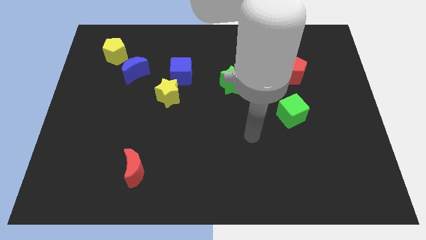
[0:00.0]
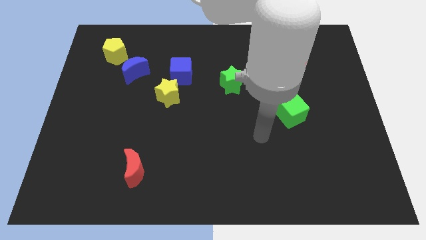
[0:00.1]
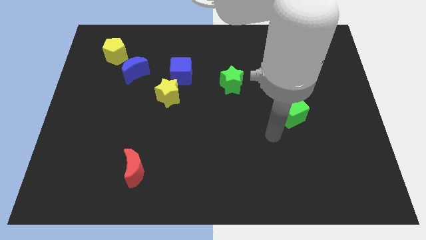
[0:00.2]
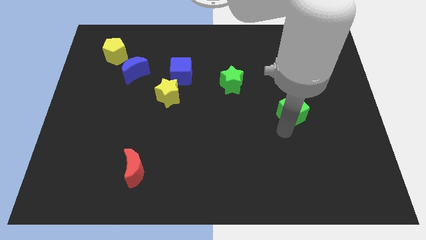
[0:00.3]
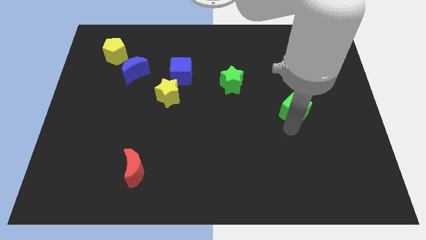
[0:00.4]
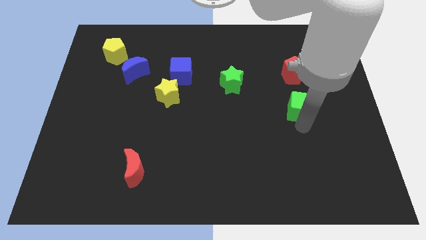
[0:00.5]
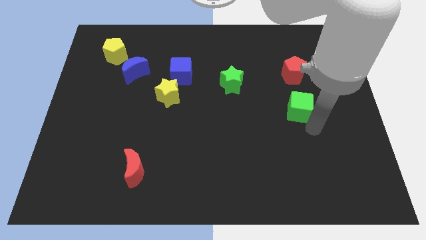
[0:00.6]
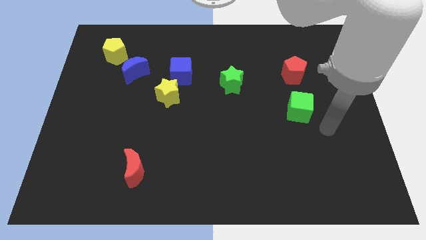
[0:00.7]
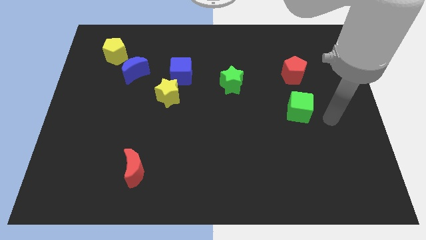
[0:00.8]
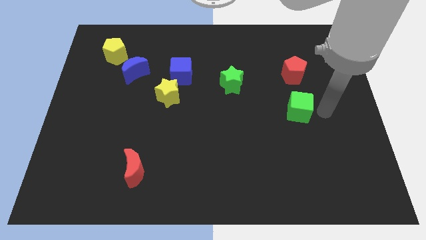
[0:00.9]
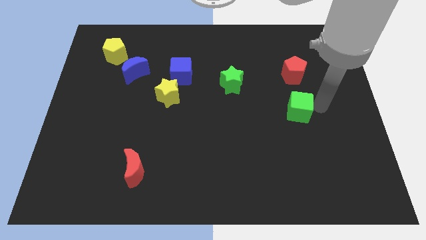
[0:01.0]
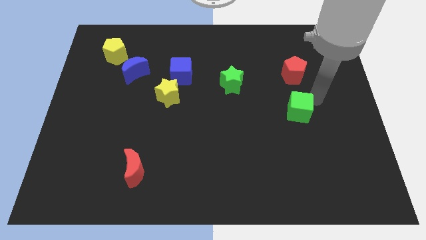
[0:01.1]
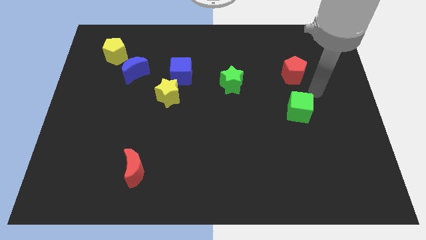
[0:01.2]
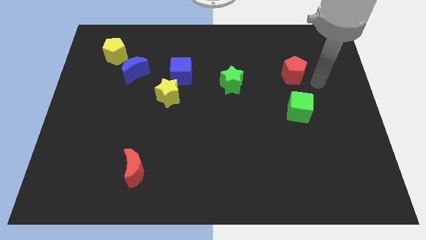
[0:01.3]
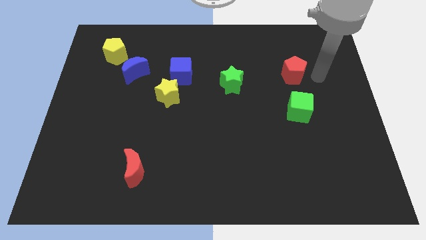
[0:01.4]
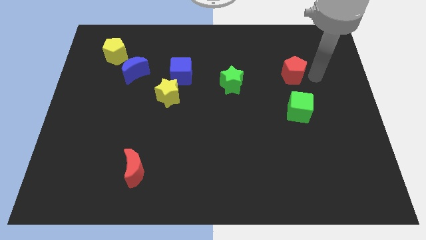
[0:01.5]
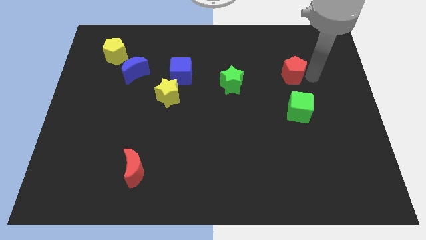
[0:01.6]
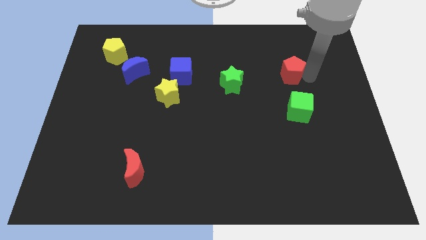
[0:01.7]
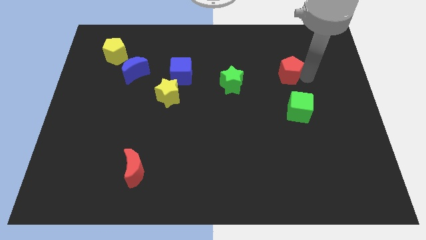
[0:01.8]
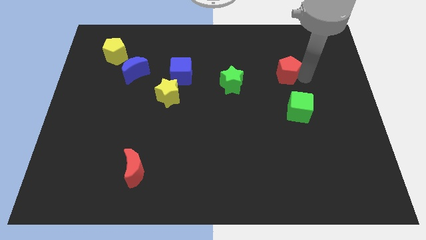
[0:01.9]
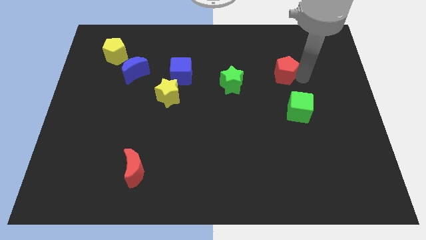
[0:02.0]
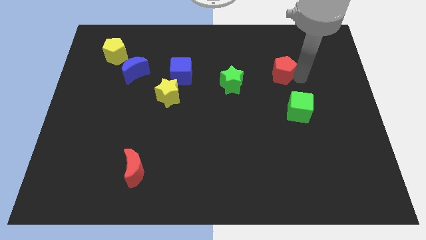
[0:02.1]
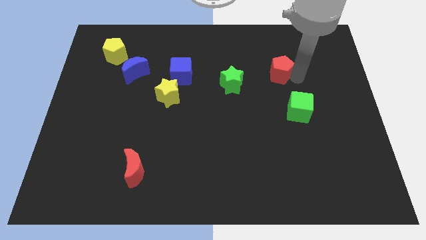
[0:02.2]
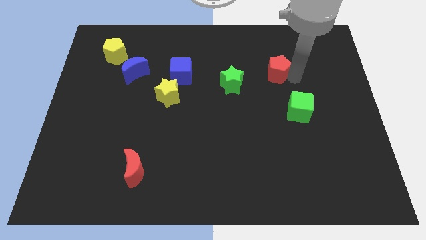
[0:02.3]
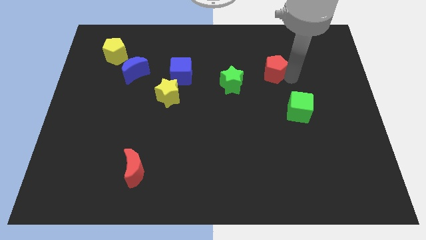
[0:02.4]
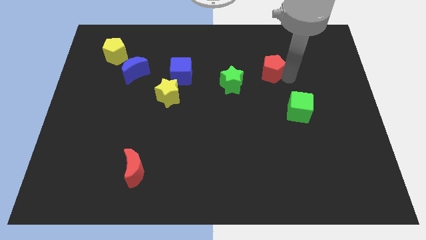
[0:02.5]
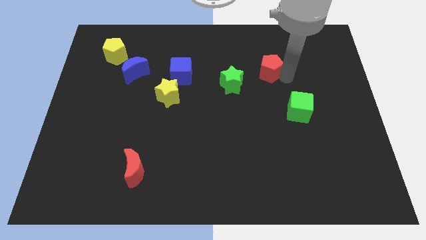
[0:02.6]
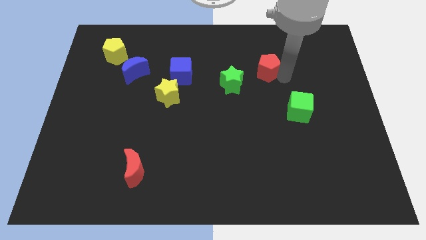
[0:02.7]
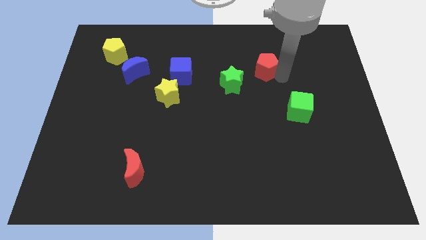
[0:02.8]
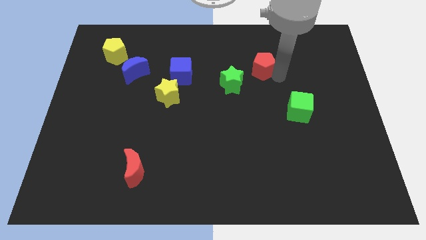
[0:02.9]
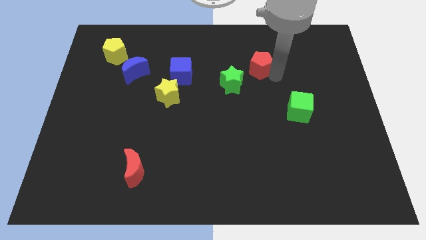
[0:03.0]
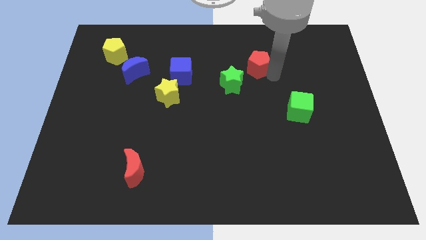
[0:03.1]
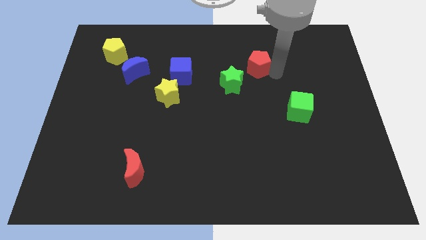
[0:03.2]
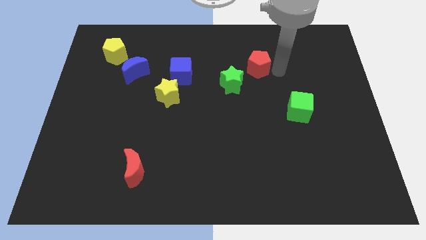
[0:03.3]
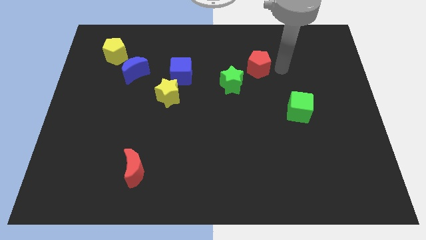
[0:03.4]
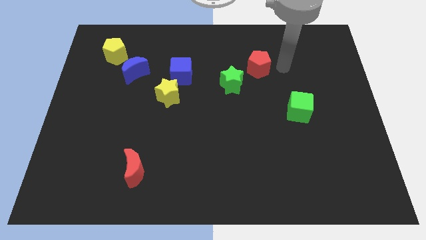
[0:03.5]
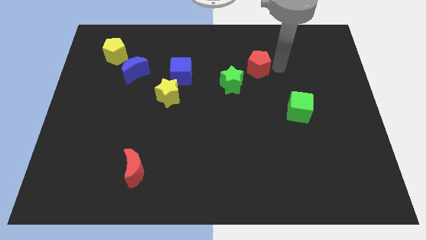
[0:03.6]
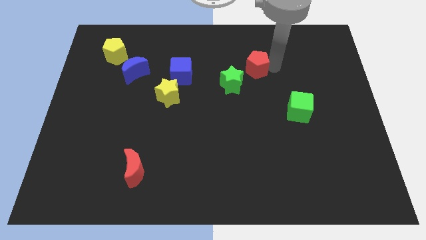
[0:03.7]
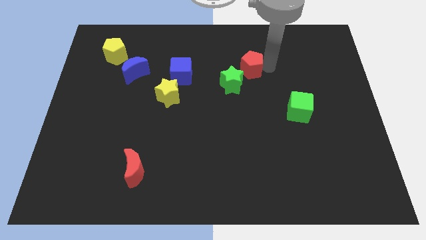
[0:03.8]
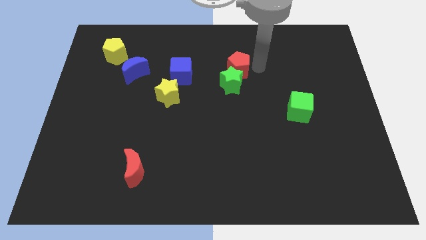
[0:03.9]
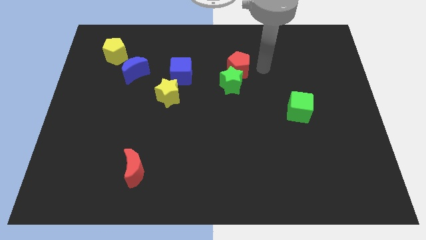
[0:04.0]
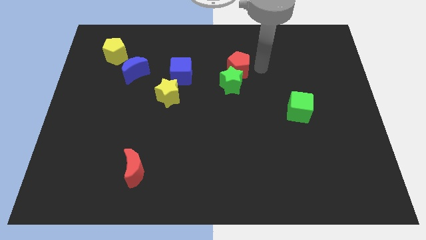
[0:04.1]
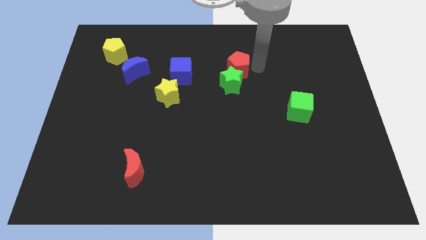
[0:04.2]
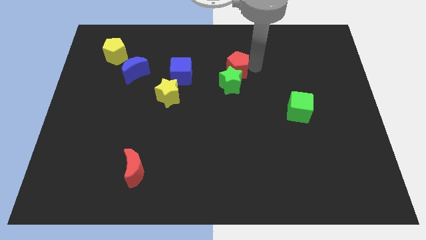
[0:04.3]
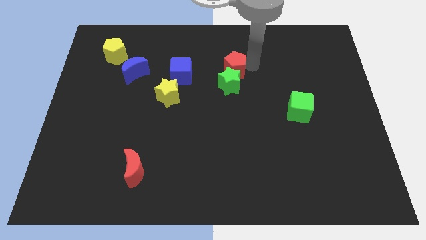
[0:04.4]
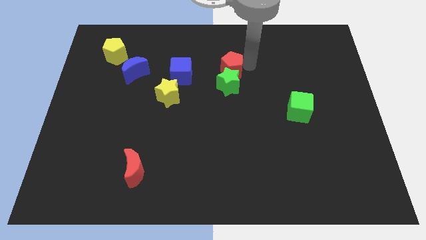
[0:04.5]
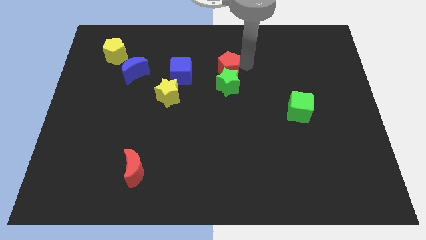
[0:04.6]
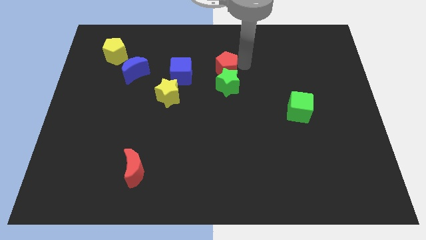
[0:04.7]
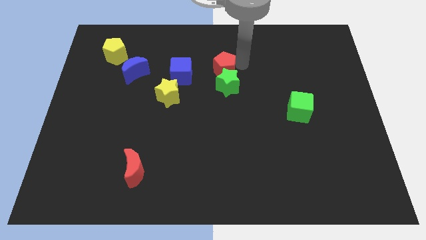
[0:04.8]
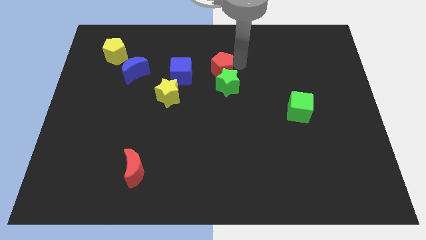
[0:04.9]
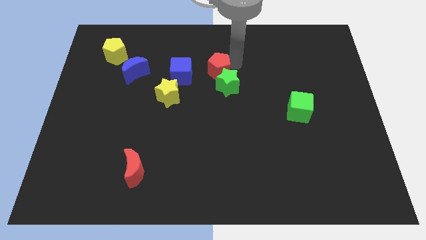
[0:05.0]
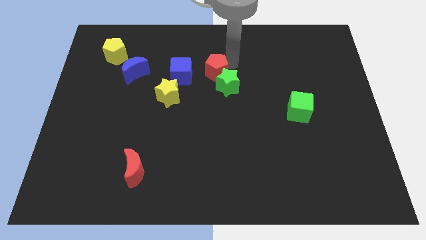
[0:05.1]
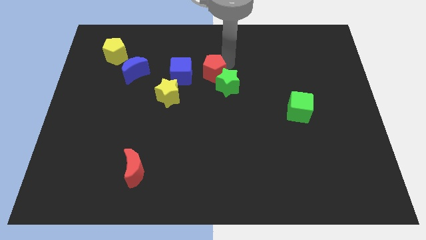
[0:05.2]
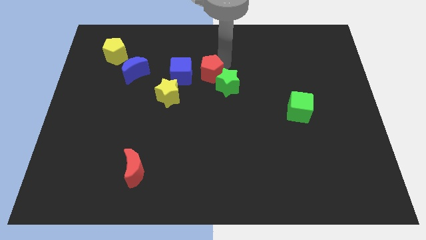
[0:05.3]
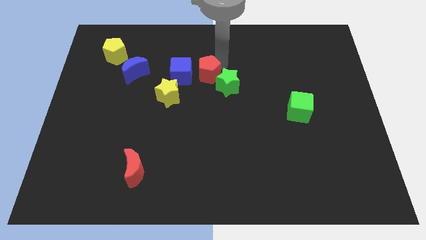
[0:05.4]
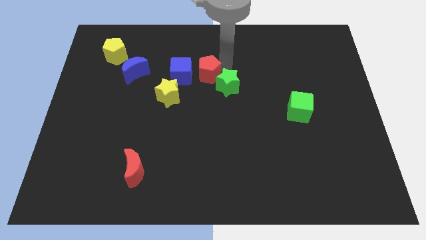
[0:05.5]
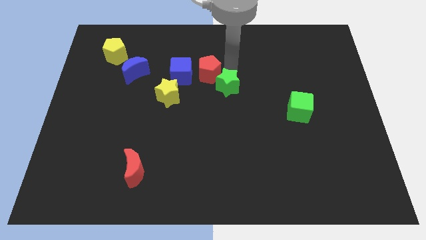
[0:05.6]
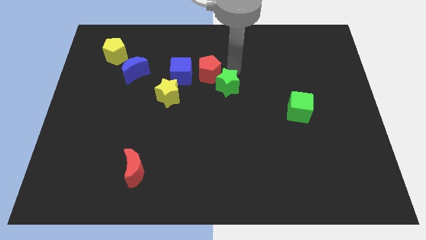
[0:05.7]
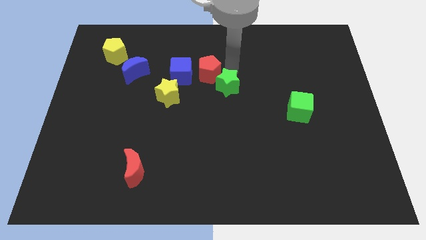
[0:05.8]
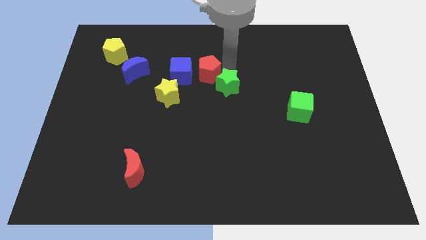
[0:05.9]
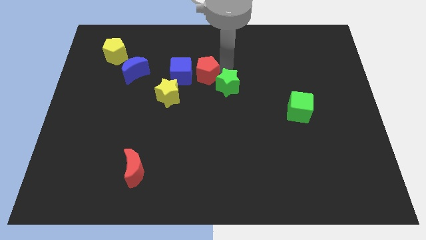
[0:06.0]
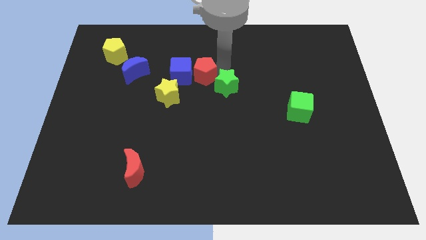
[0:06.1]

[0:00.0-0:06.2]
move the red pentagon towards the blue cube

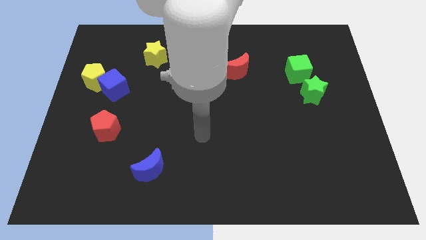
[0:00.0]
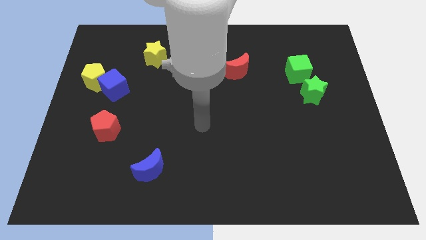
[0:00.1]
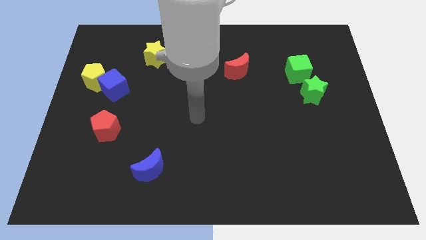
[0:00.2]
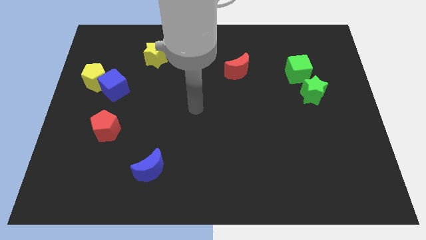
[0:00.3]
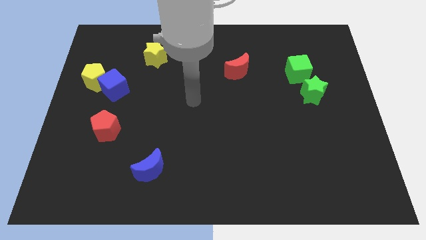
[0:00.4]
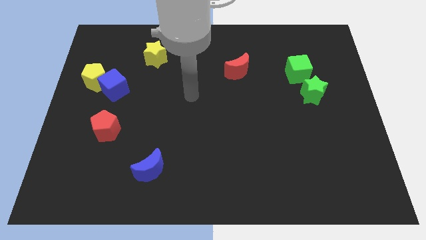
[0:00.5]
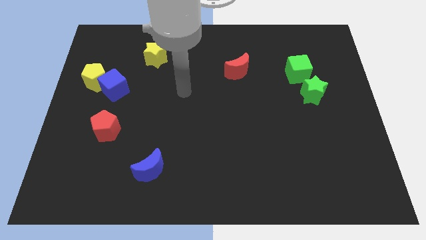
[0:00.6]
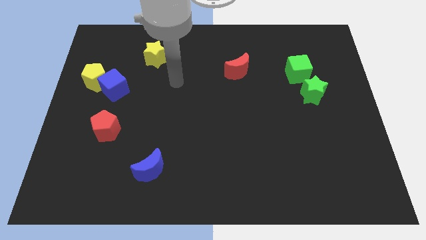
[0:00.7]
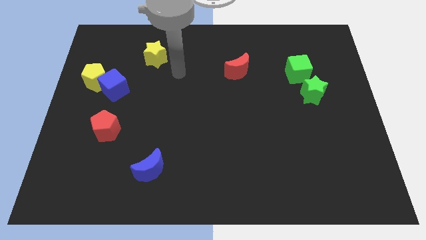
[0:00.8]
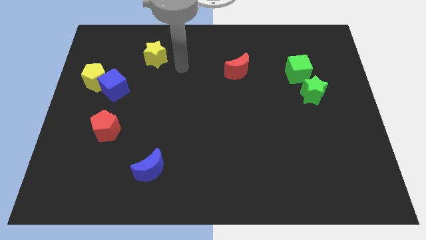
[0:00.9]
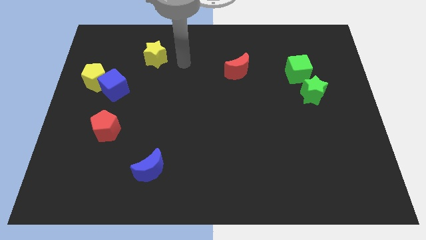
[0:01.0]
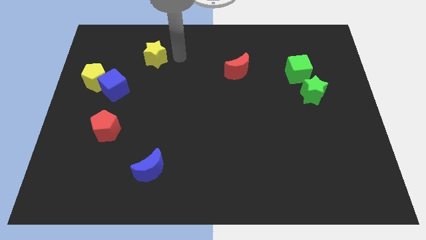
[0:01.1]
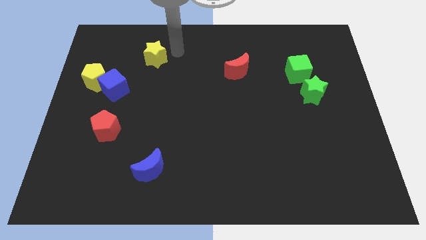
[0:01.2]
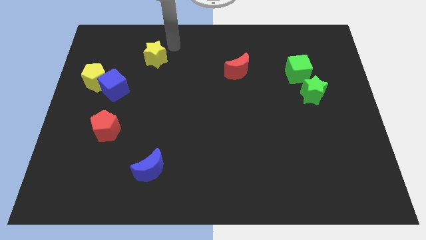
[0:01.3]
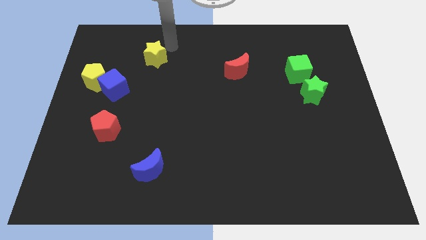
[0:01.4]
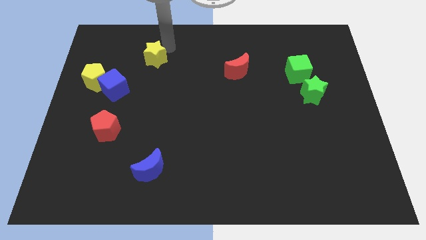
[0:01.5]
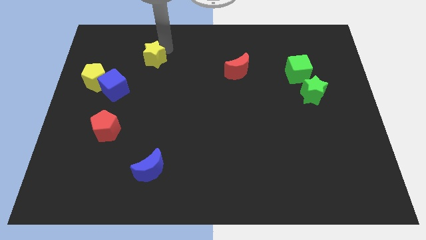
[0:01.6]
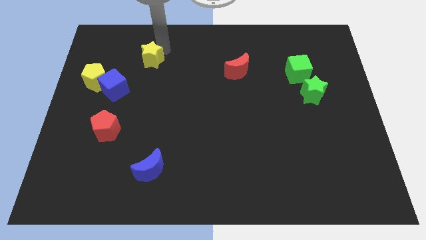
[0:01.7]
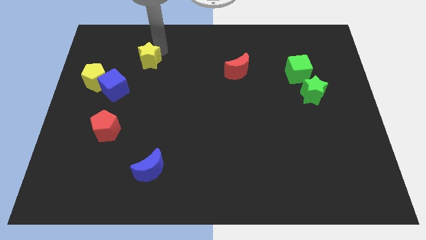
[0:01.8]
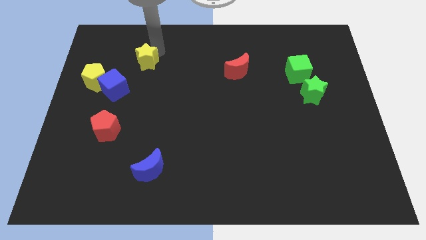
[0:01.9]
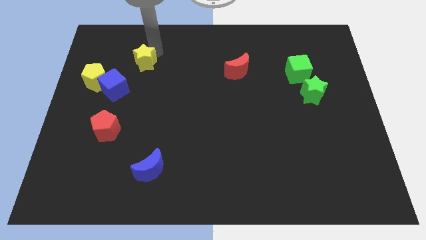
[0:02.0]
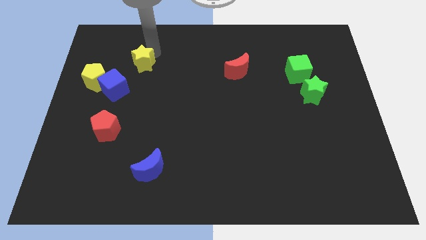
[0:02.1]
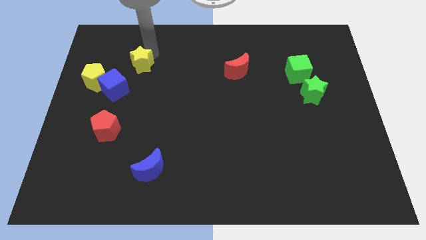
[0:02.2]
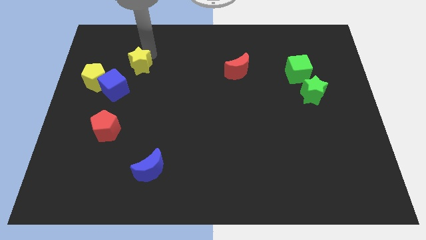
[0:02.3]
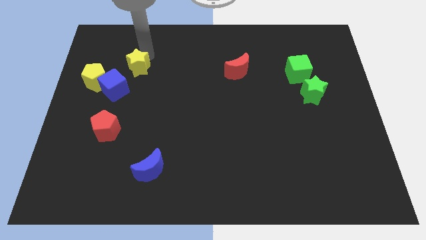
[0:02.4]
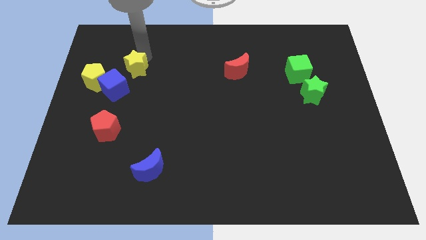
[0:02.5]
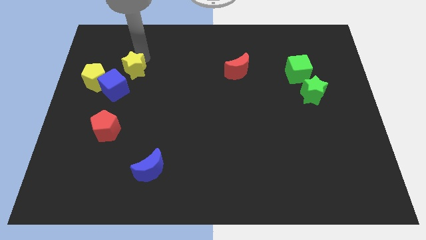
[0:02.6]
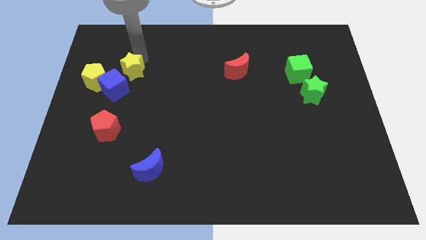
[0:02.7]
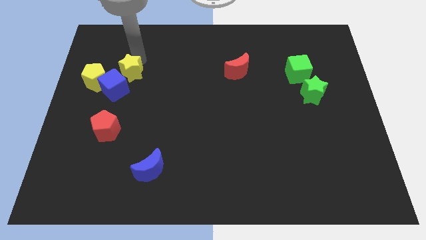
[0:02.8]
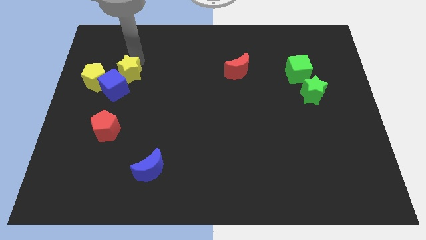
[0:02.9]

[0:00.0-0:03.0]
move the yellow star to the blue cube
